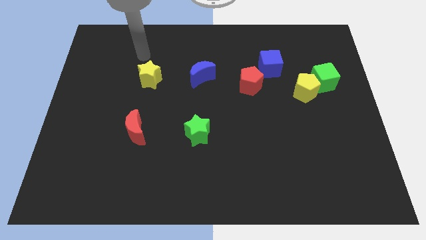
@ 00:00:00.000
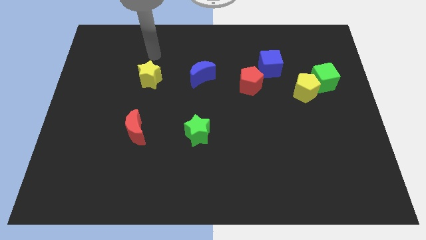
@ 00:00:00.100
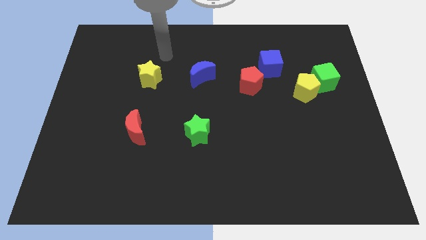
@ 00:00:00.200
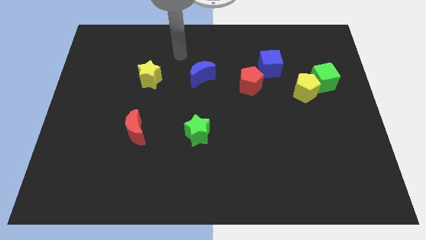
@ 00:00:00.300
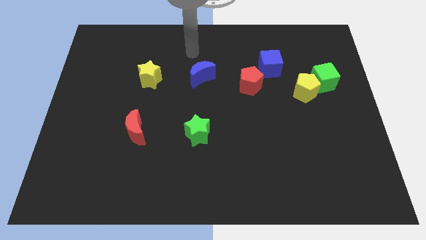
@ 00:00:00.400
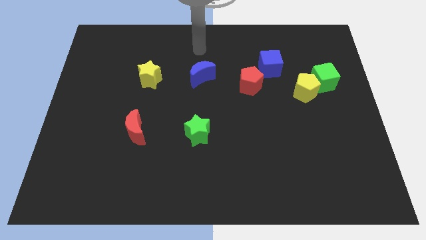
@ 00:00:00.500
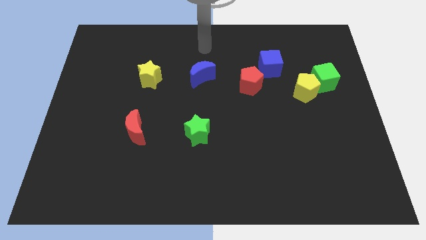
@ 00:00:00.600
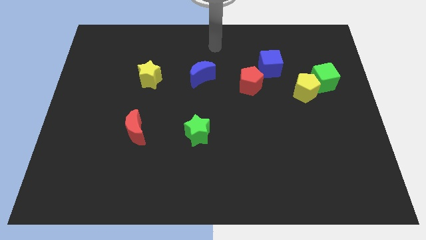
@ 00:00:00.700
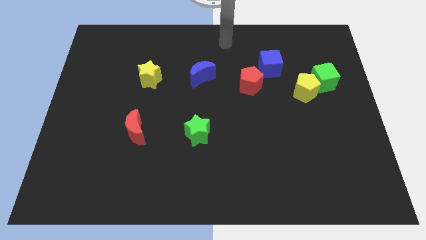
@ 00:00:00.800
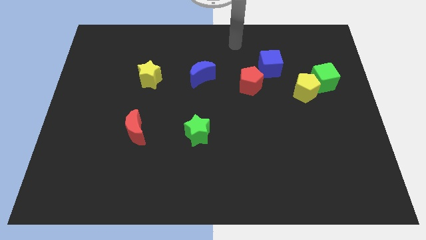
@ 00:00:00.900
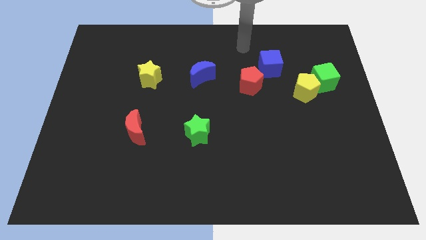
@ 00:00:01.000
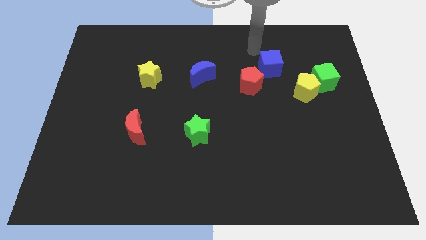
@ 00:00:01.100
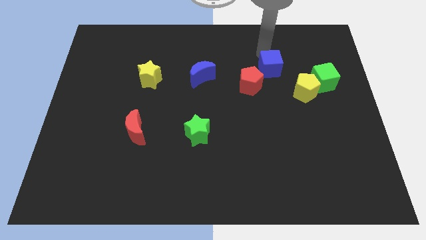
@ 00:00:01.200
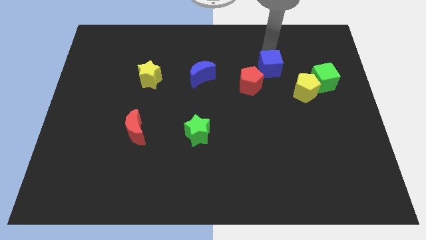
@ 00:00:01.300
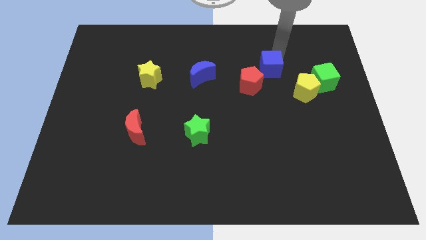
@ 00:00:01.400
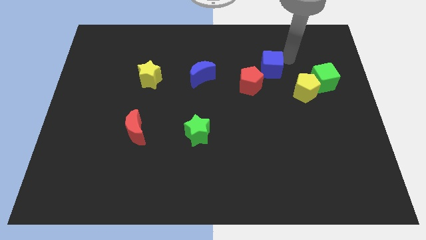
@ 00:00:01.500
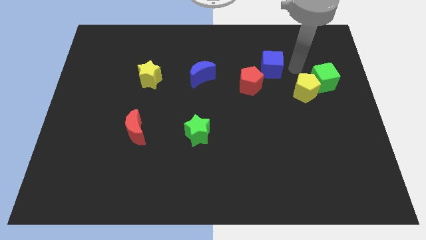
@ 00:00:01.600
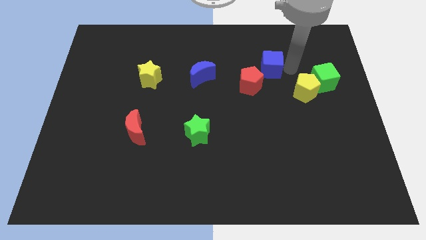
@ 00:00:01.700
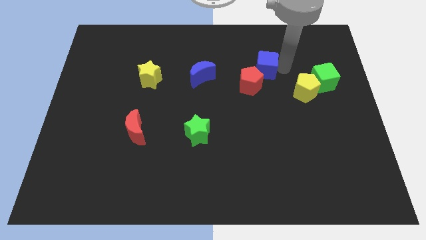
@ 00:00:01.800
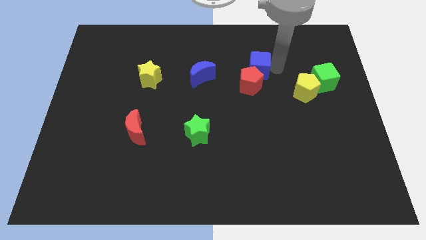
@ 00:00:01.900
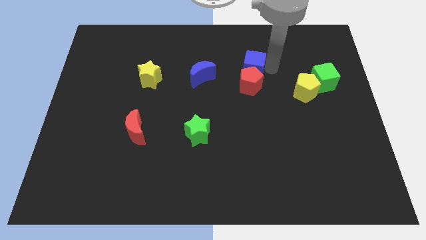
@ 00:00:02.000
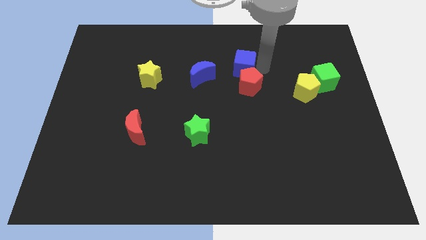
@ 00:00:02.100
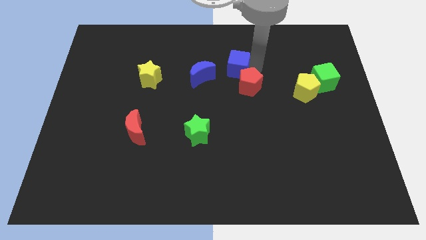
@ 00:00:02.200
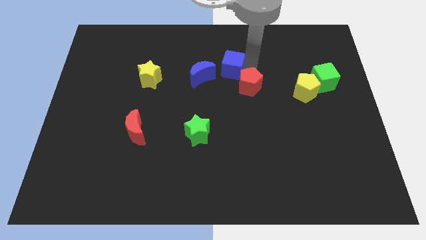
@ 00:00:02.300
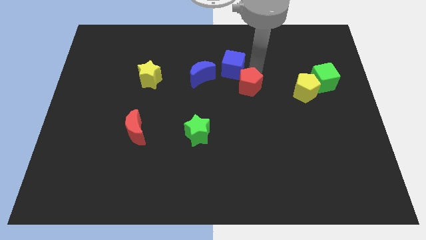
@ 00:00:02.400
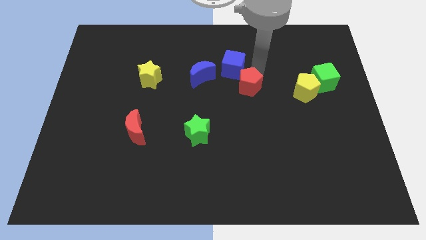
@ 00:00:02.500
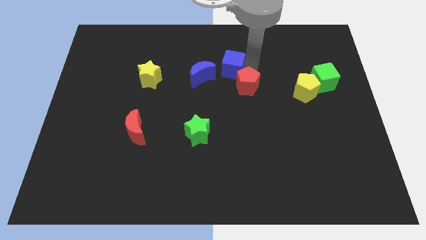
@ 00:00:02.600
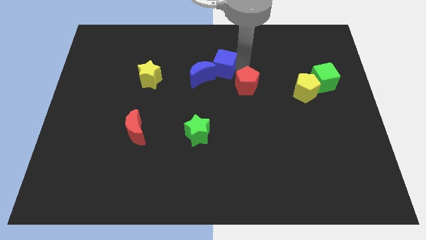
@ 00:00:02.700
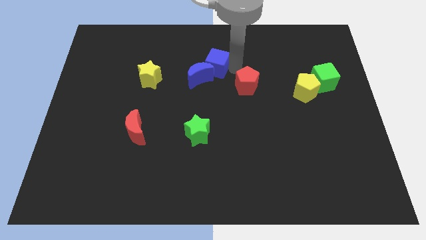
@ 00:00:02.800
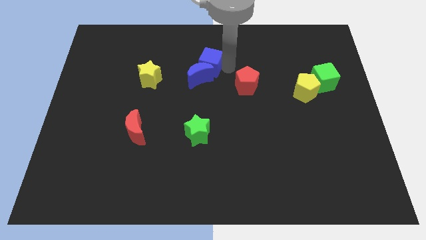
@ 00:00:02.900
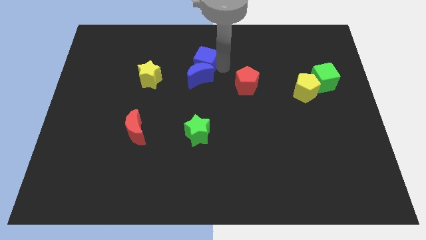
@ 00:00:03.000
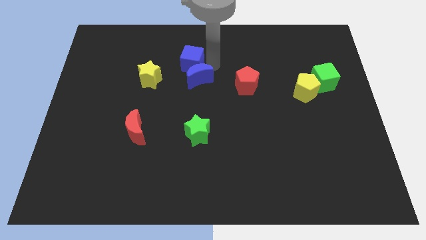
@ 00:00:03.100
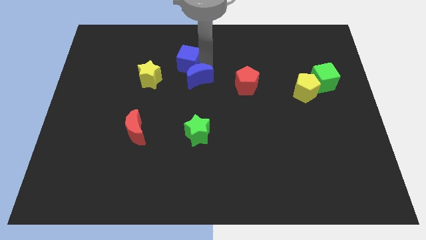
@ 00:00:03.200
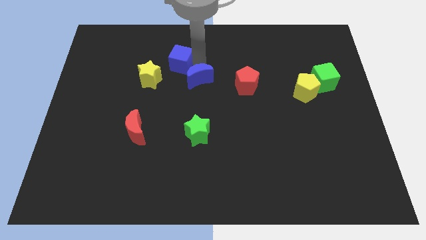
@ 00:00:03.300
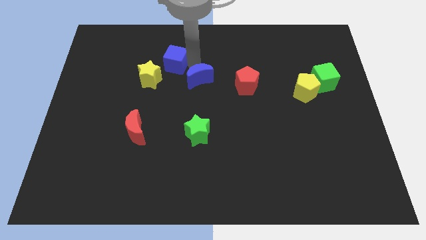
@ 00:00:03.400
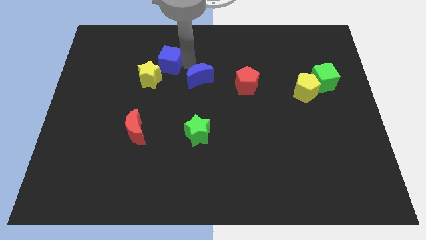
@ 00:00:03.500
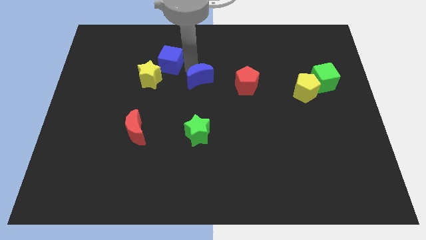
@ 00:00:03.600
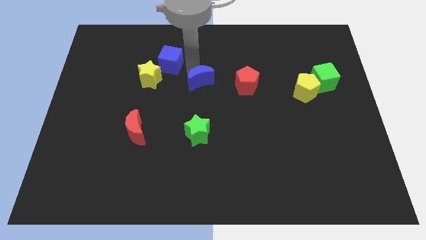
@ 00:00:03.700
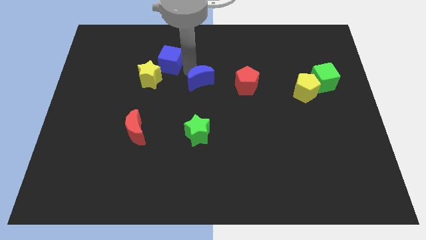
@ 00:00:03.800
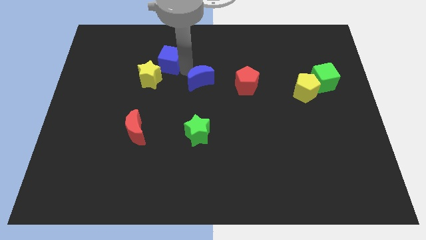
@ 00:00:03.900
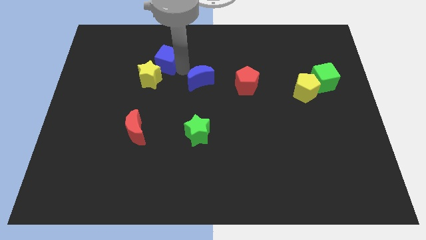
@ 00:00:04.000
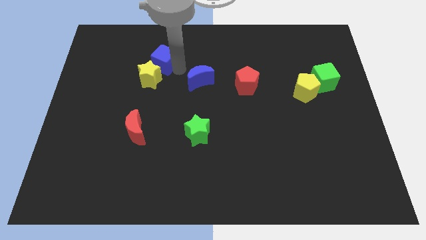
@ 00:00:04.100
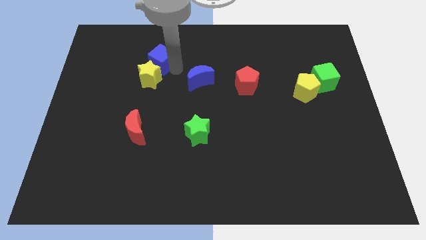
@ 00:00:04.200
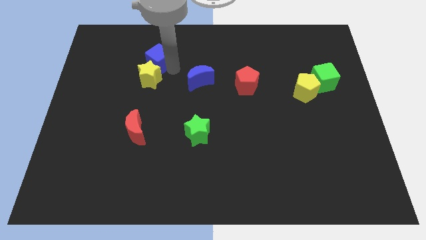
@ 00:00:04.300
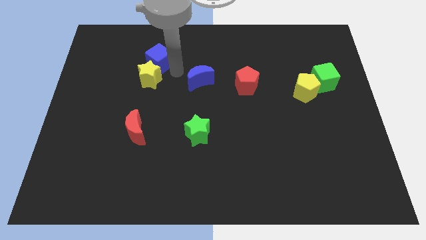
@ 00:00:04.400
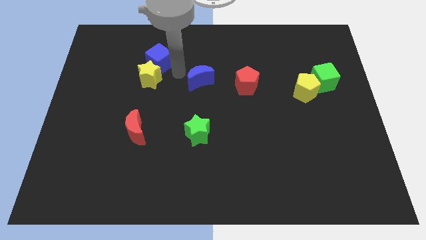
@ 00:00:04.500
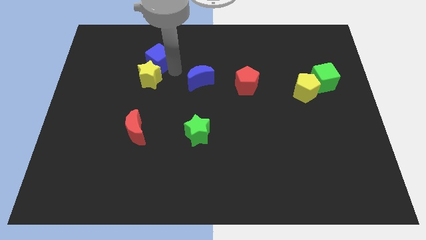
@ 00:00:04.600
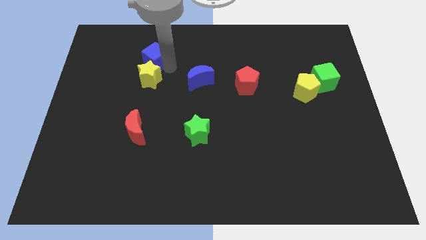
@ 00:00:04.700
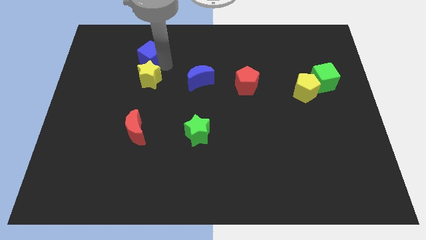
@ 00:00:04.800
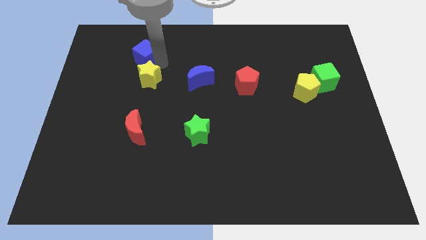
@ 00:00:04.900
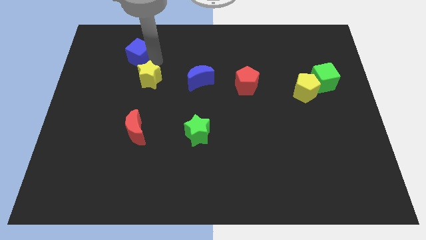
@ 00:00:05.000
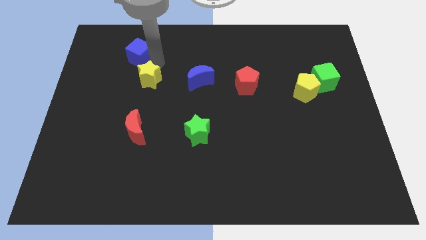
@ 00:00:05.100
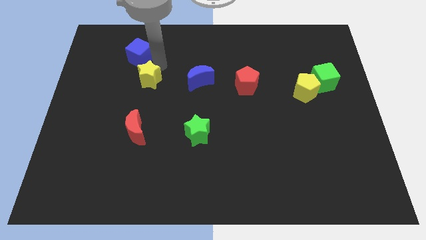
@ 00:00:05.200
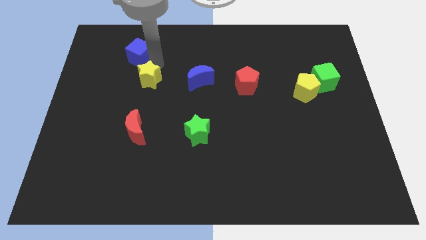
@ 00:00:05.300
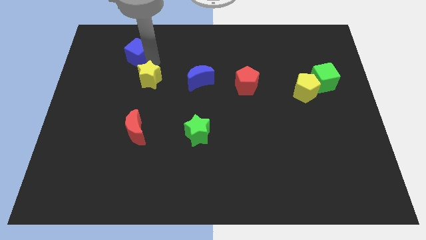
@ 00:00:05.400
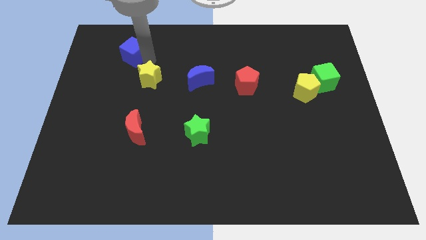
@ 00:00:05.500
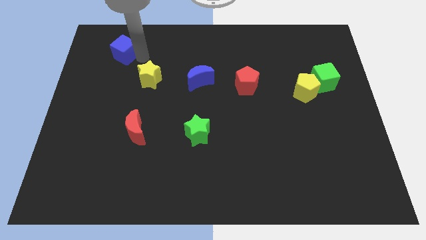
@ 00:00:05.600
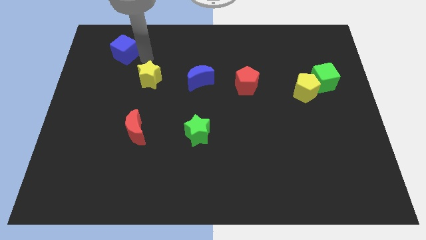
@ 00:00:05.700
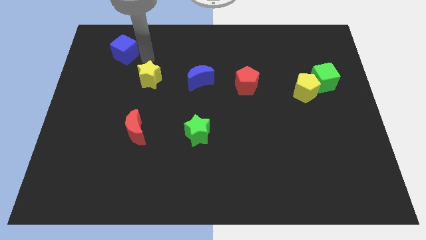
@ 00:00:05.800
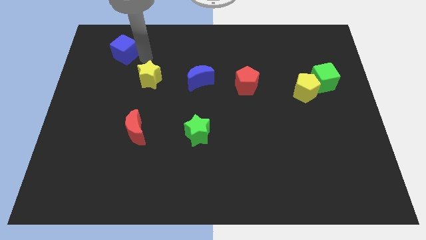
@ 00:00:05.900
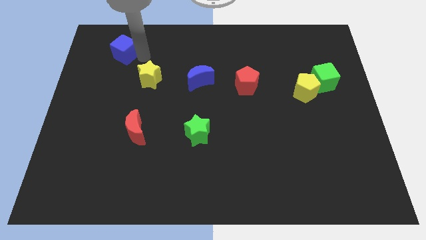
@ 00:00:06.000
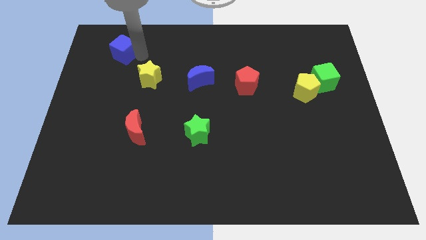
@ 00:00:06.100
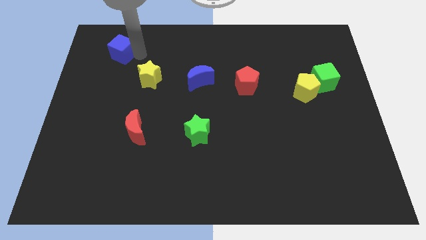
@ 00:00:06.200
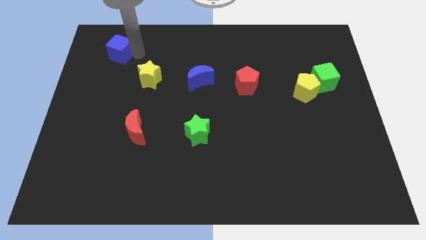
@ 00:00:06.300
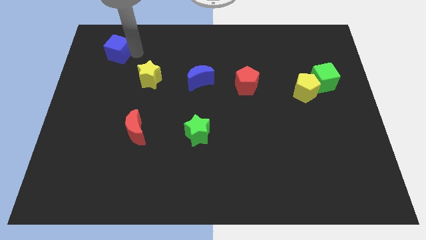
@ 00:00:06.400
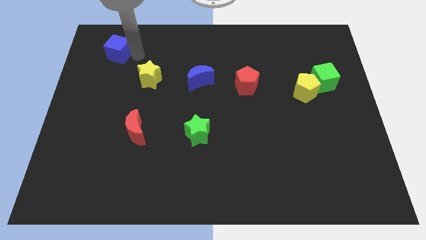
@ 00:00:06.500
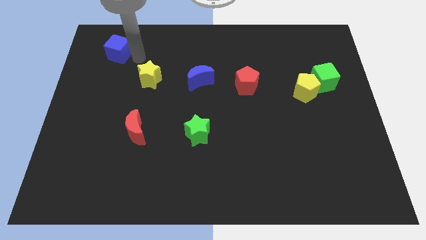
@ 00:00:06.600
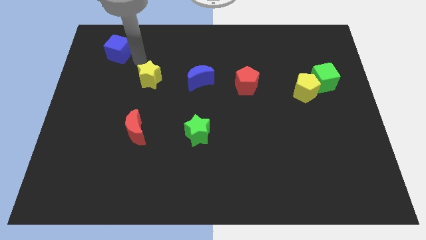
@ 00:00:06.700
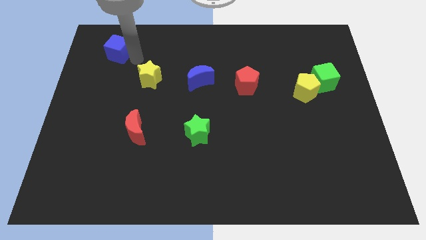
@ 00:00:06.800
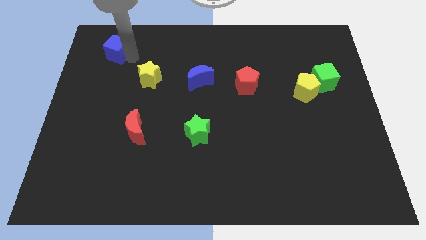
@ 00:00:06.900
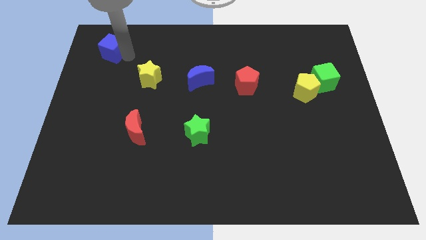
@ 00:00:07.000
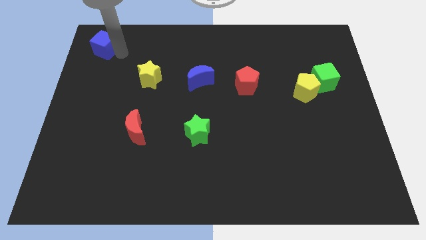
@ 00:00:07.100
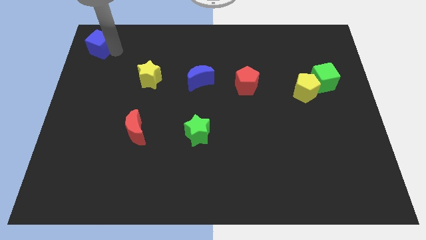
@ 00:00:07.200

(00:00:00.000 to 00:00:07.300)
slide the blue cube to the top left corner

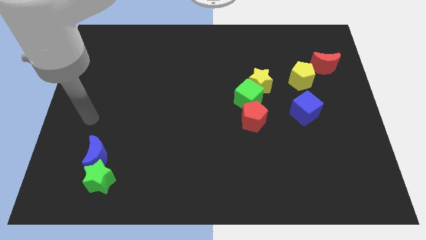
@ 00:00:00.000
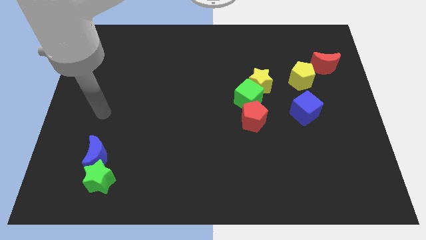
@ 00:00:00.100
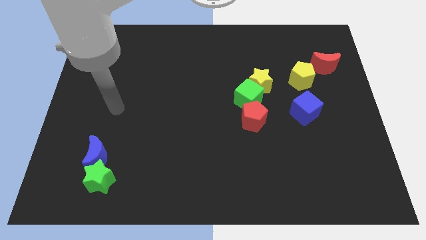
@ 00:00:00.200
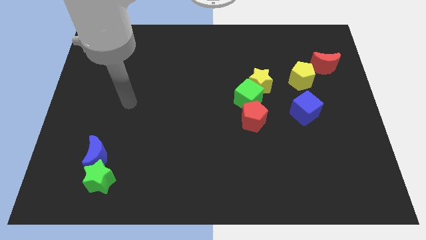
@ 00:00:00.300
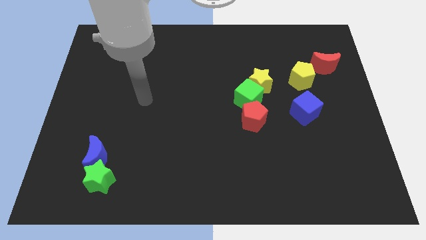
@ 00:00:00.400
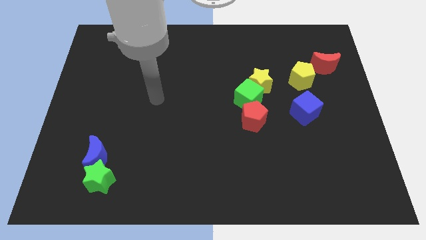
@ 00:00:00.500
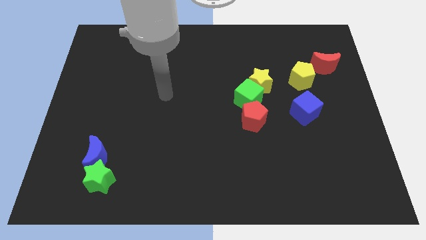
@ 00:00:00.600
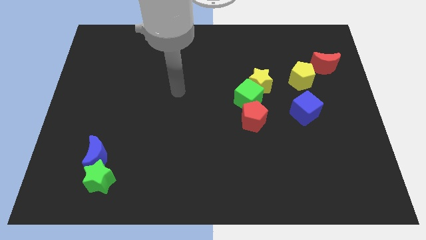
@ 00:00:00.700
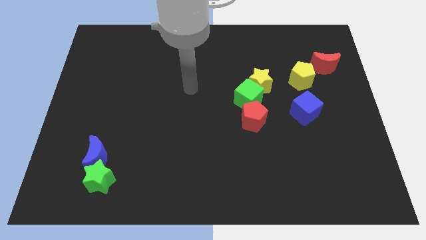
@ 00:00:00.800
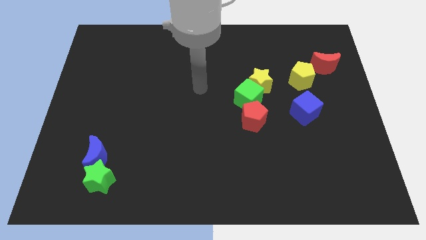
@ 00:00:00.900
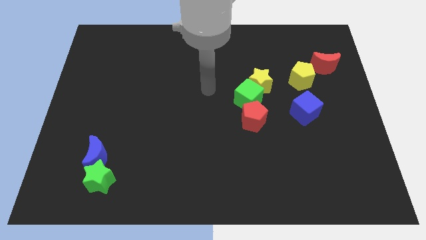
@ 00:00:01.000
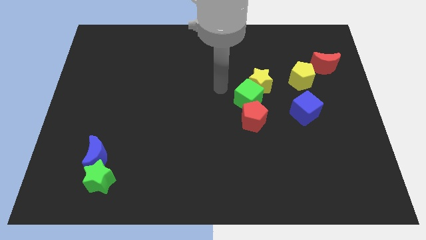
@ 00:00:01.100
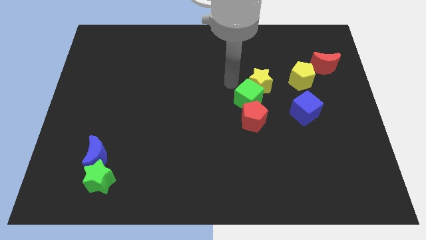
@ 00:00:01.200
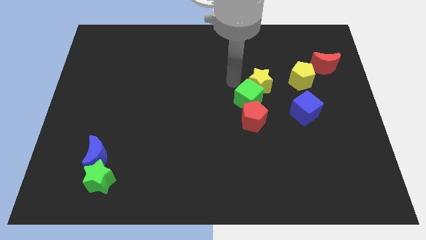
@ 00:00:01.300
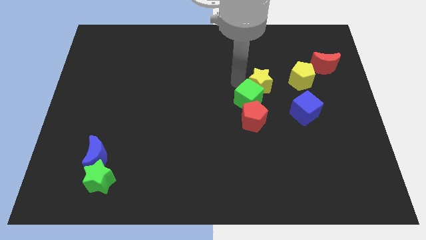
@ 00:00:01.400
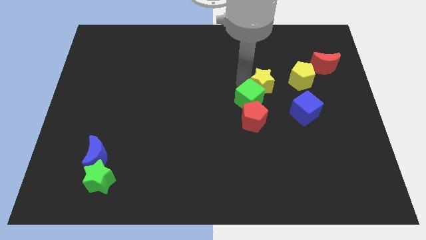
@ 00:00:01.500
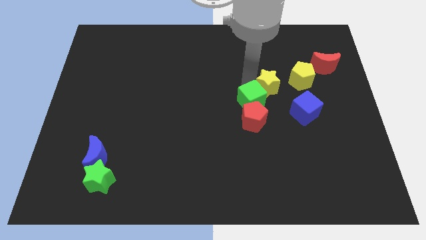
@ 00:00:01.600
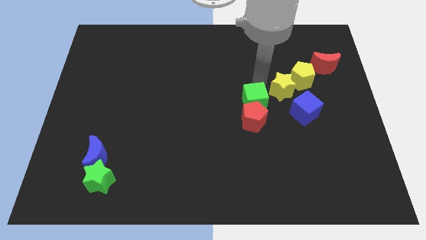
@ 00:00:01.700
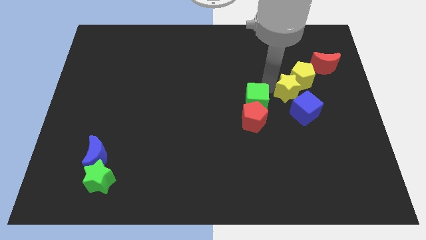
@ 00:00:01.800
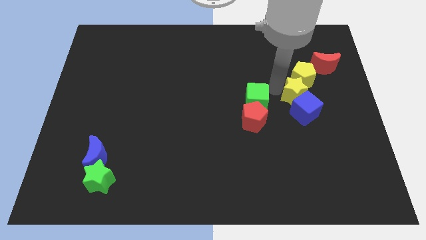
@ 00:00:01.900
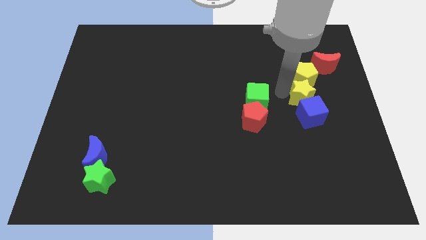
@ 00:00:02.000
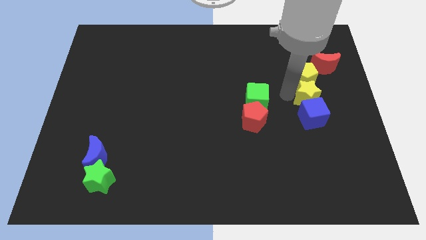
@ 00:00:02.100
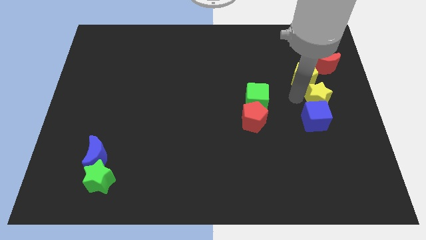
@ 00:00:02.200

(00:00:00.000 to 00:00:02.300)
slide the yellow star to the right side
